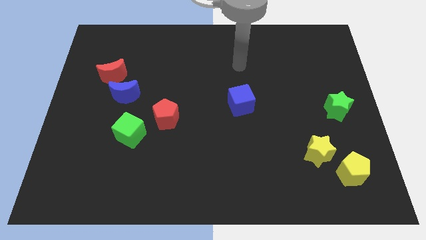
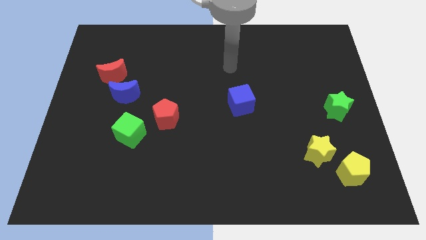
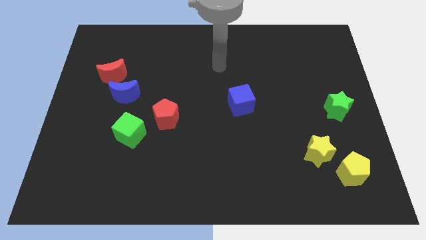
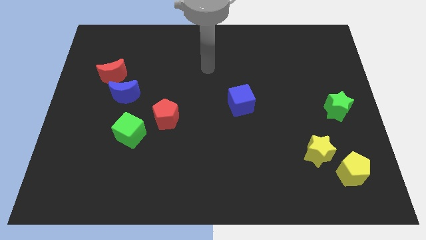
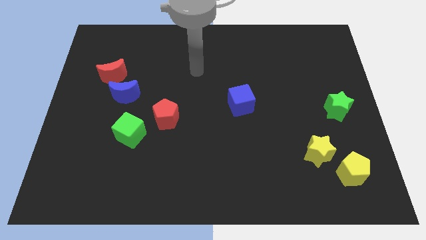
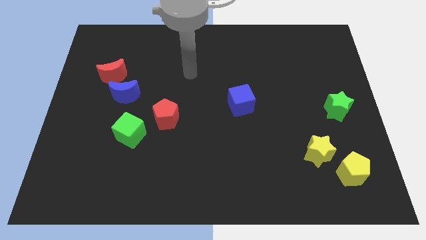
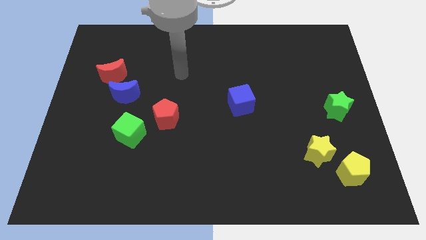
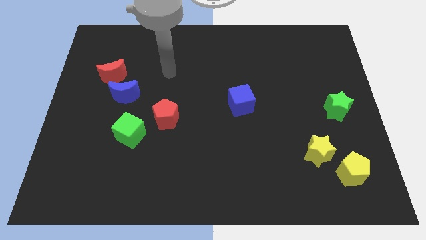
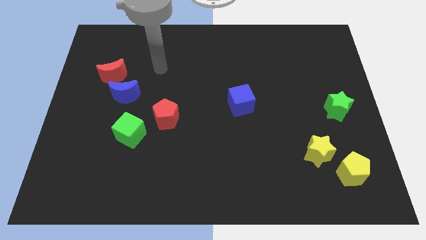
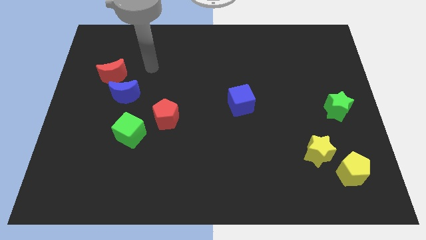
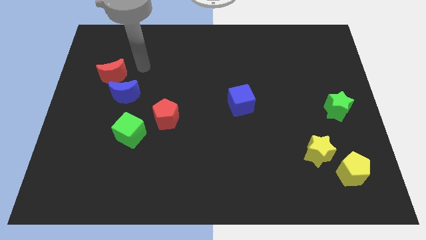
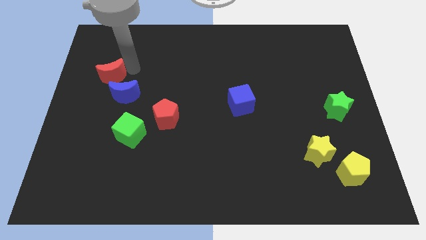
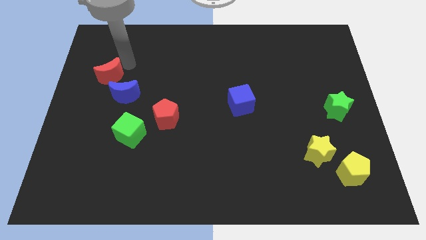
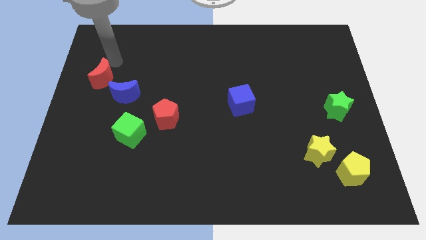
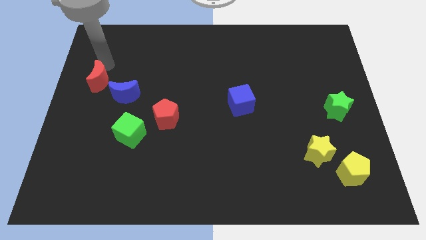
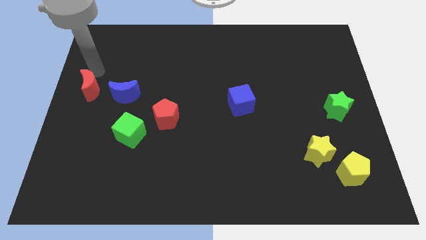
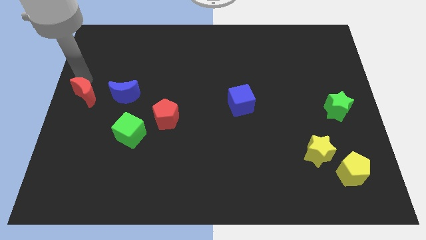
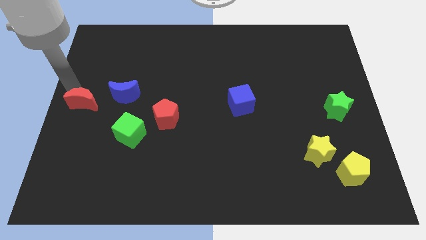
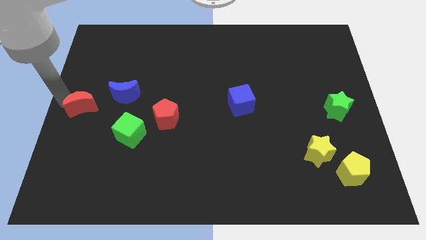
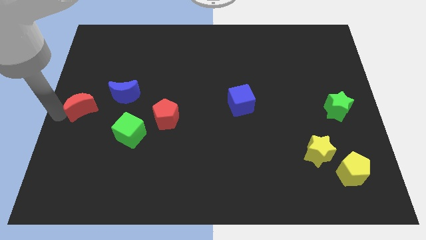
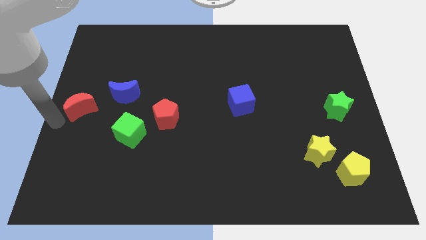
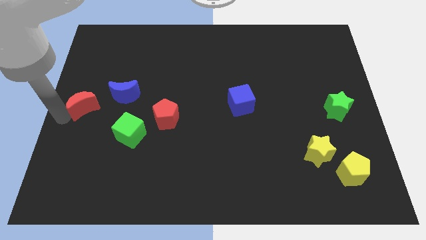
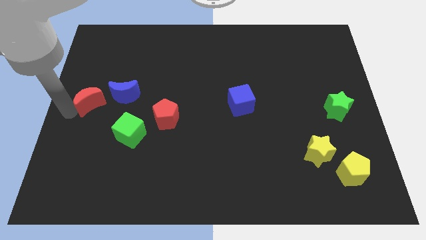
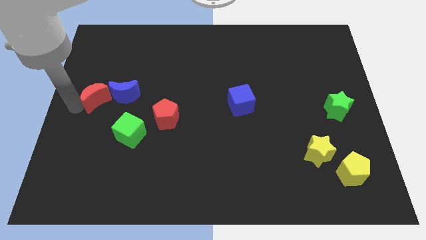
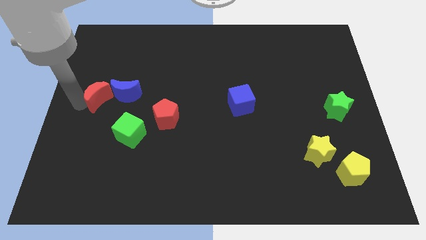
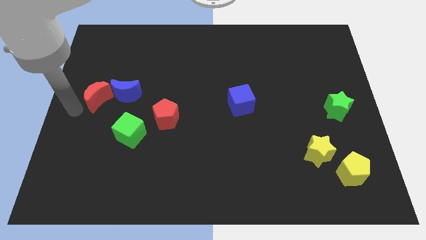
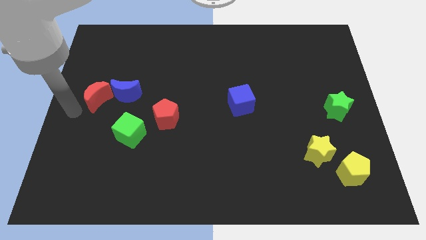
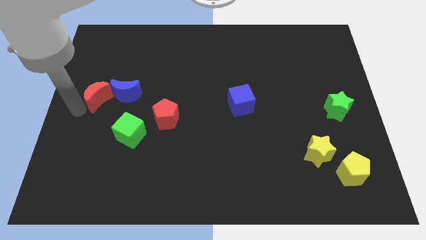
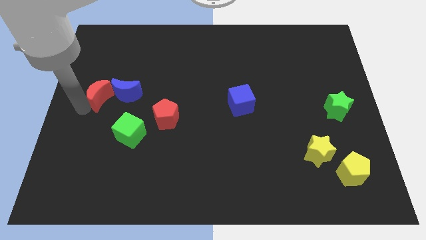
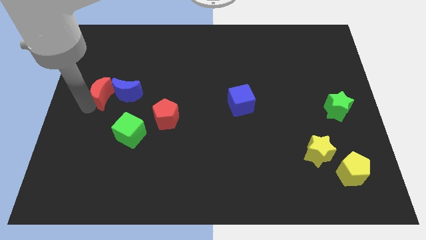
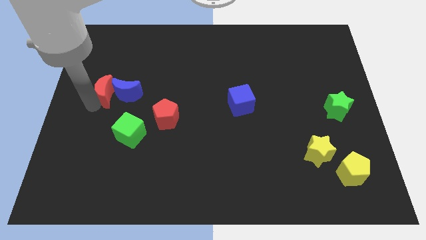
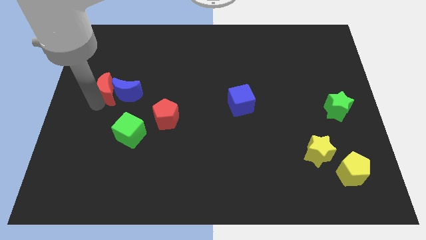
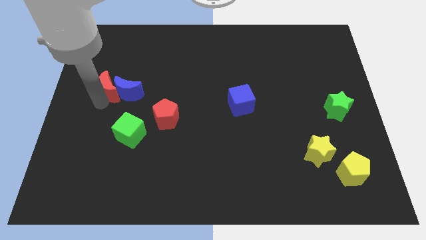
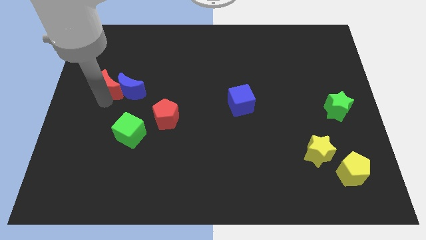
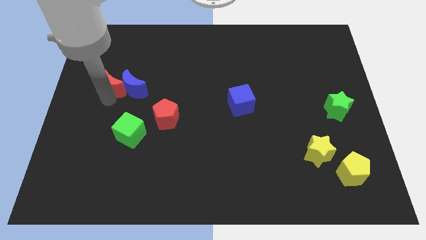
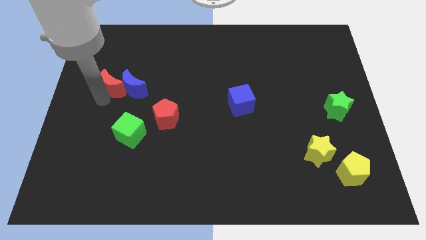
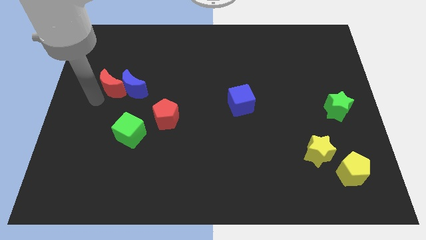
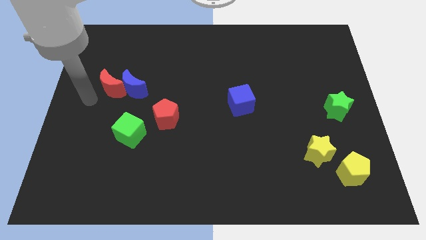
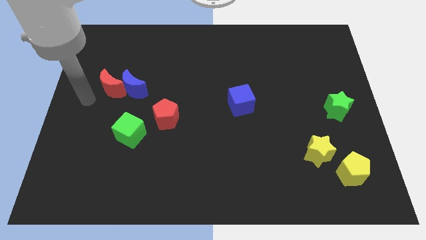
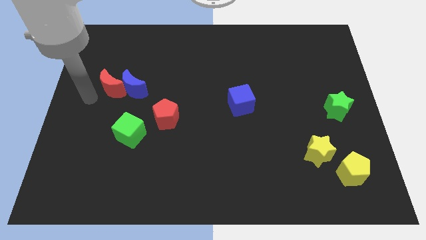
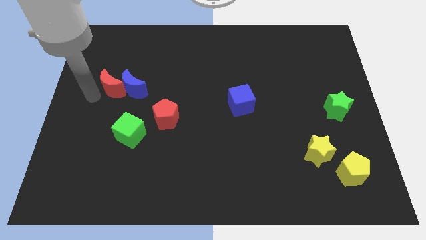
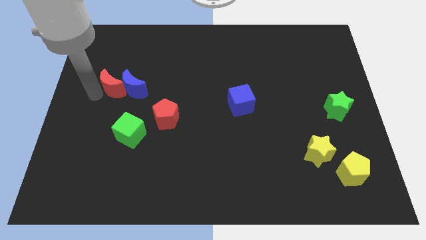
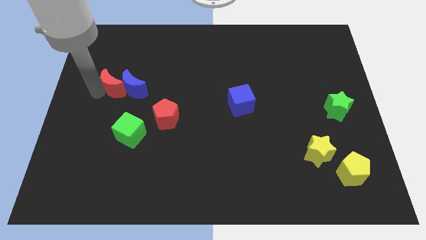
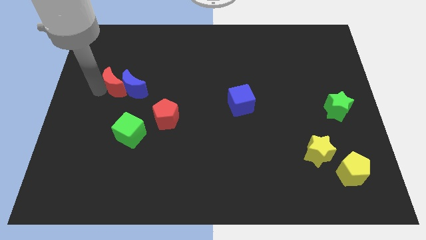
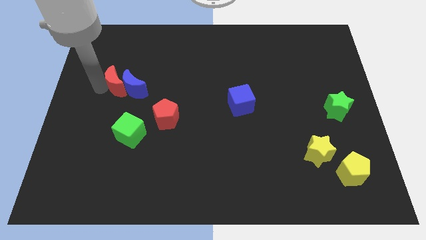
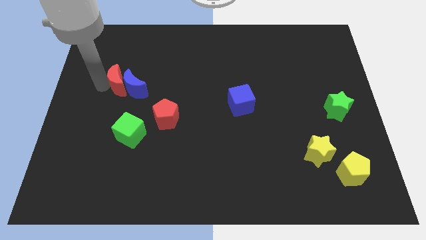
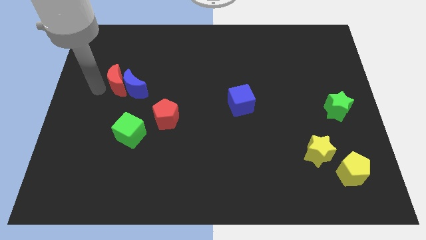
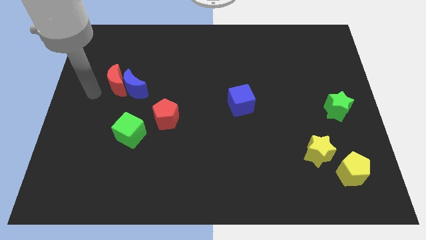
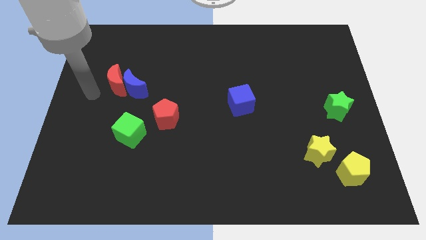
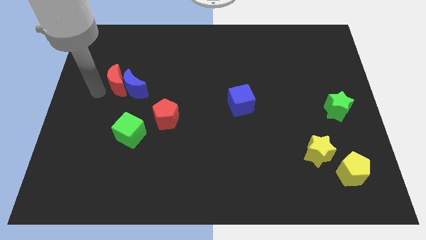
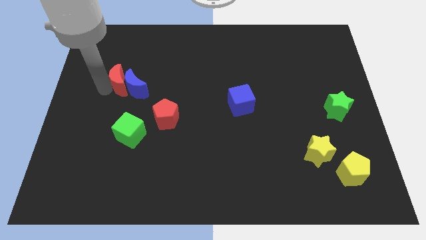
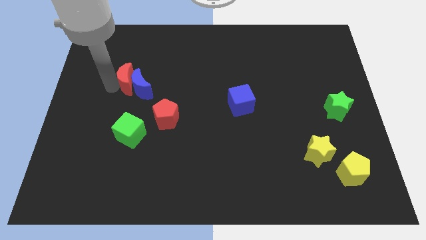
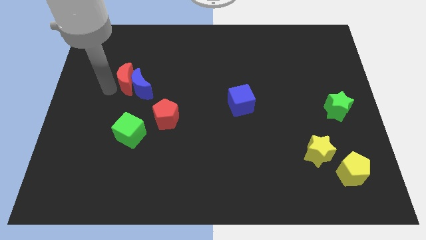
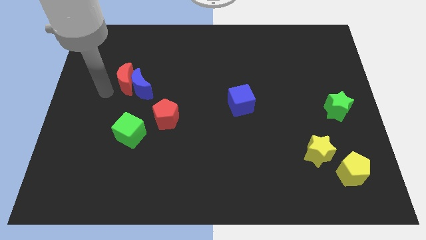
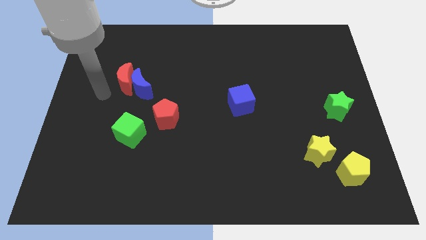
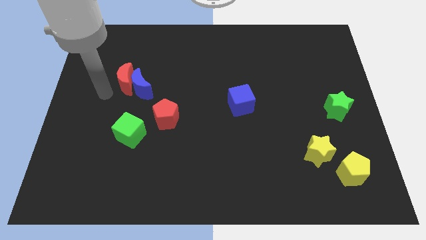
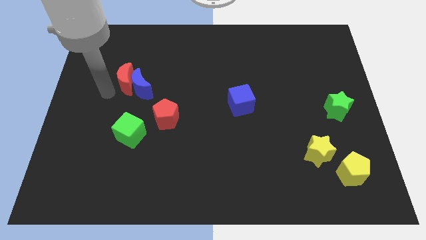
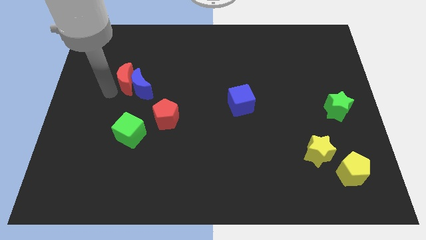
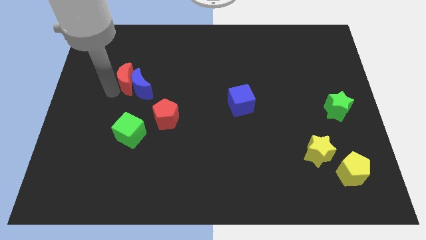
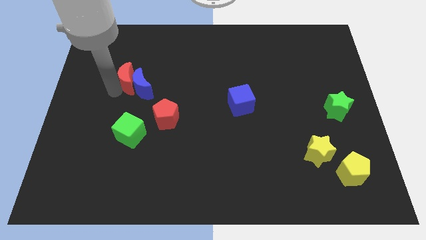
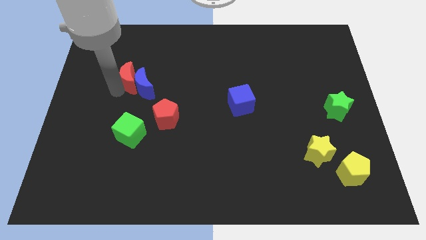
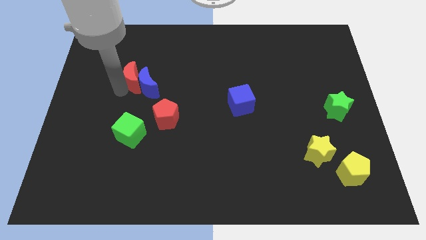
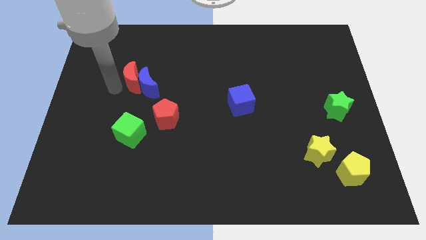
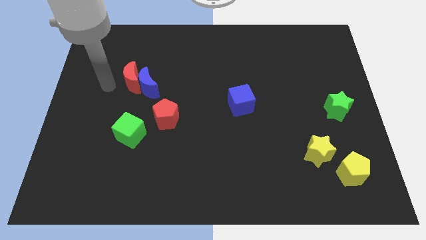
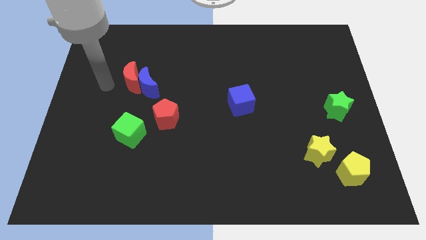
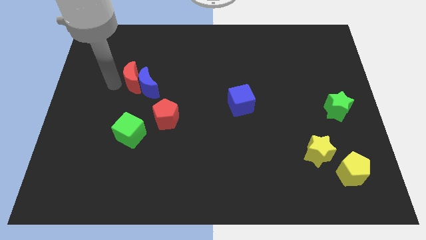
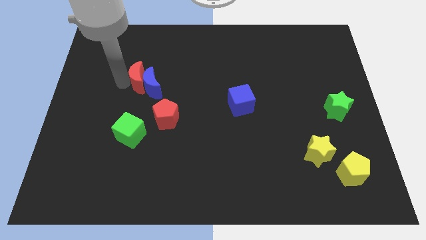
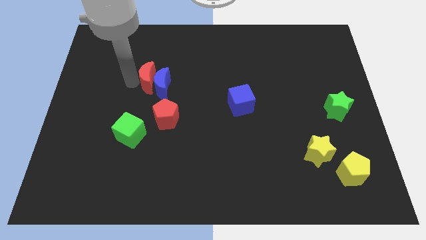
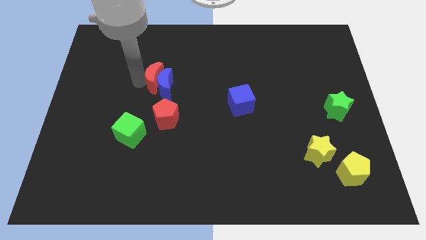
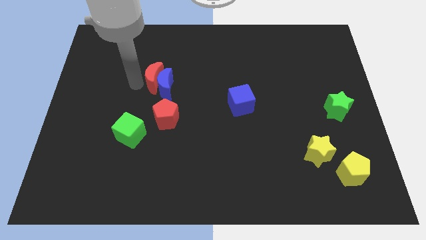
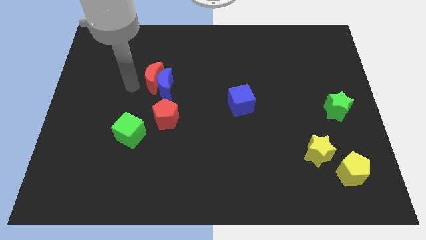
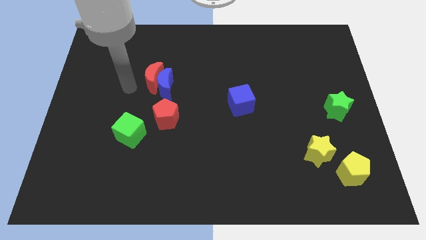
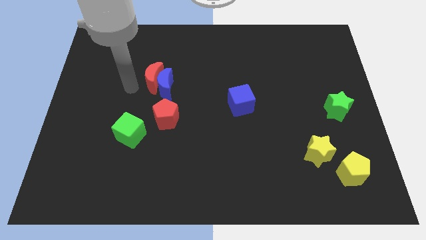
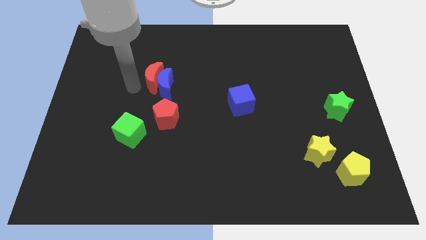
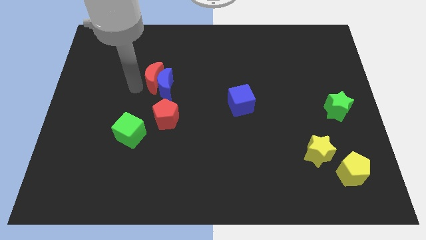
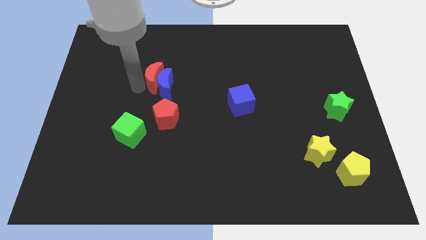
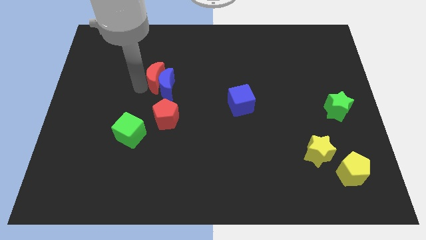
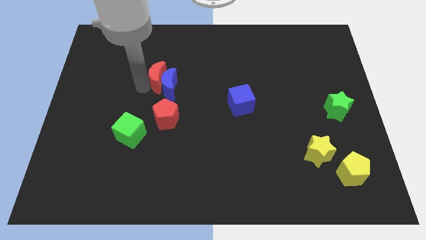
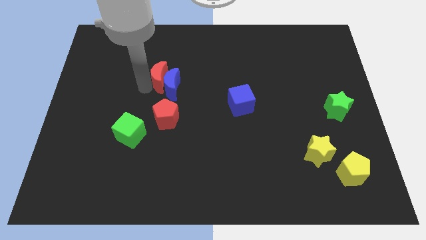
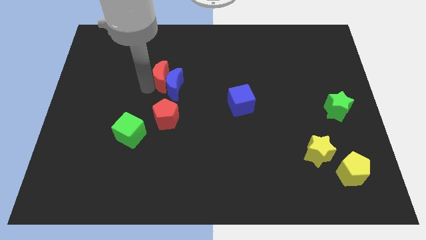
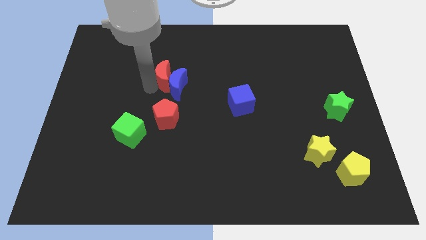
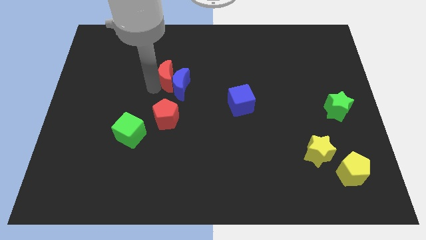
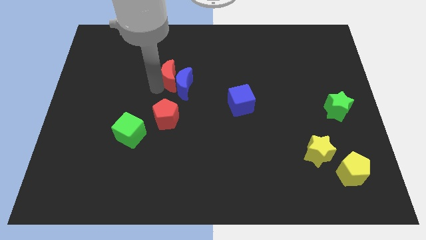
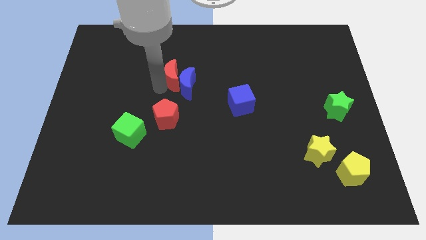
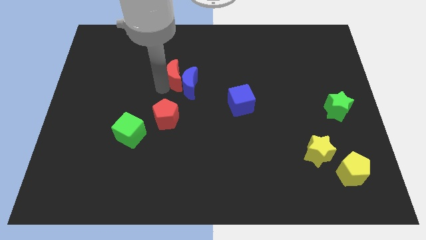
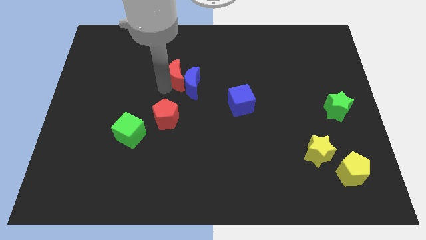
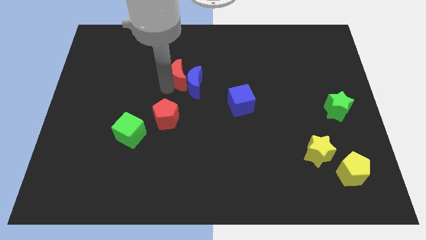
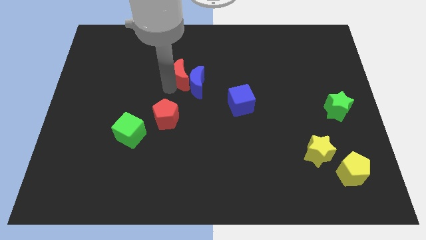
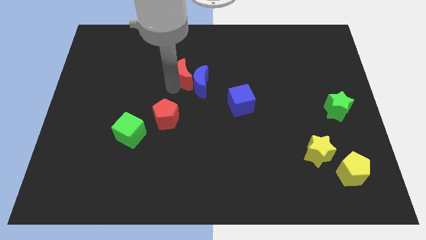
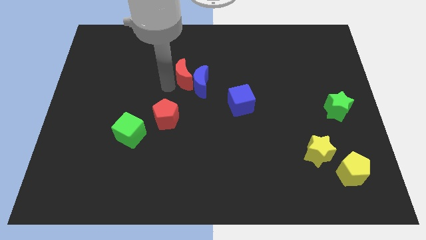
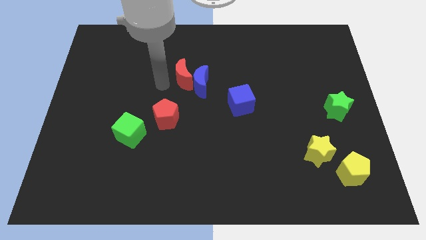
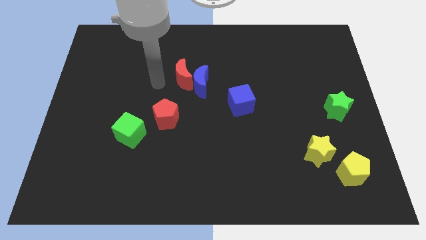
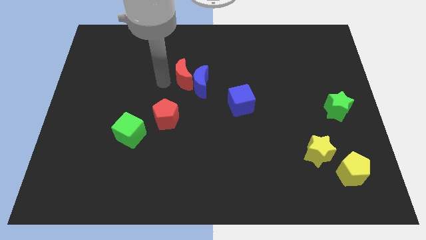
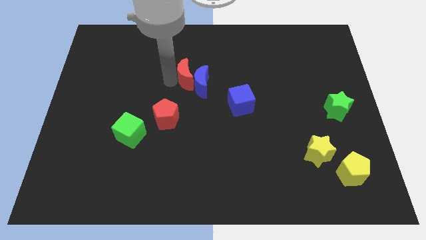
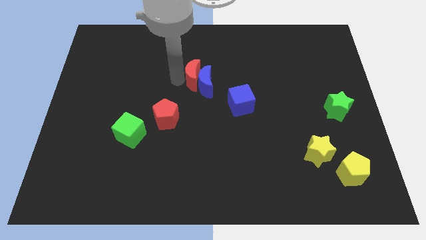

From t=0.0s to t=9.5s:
move the red moon right
